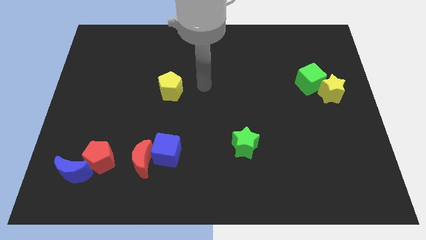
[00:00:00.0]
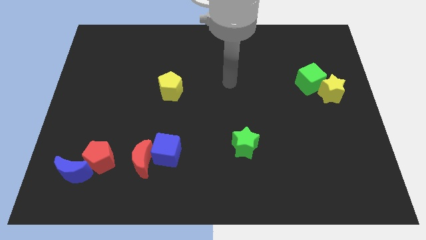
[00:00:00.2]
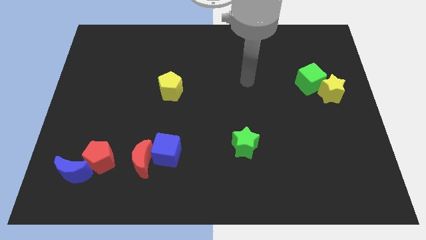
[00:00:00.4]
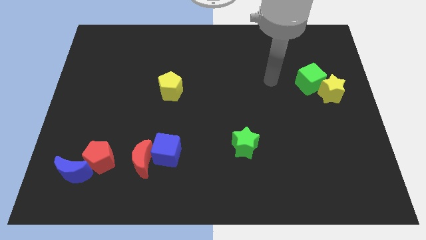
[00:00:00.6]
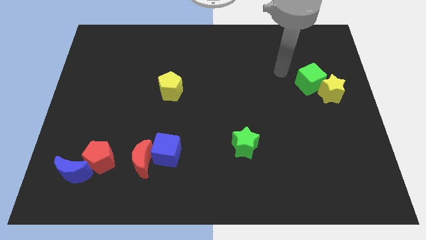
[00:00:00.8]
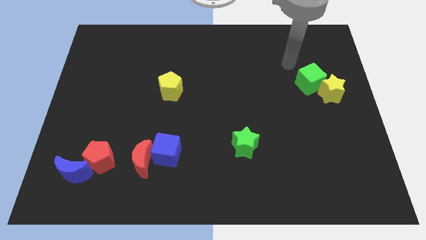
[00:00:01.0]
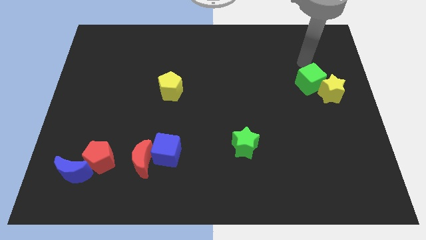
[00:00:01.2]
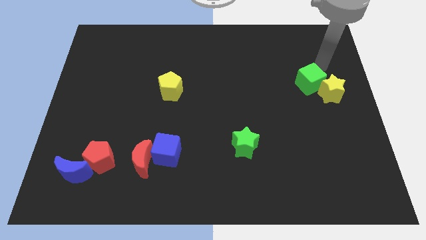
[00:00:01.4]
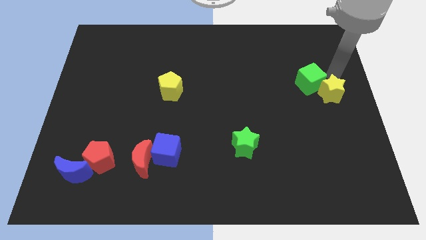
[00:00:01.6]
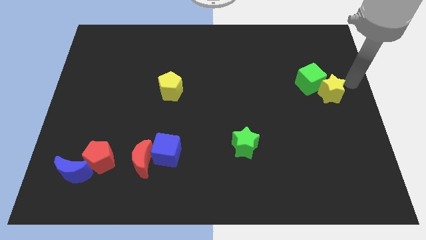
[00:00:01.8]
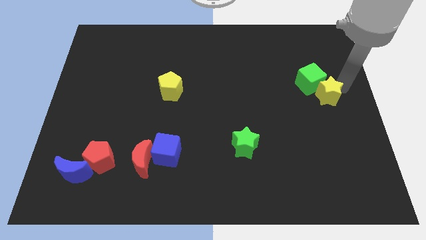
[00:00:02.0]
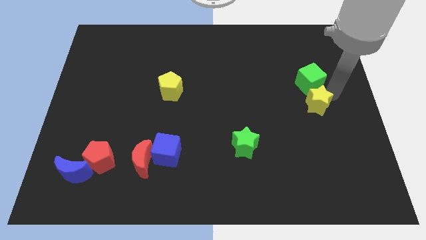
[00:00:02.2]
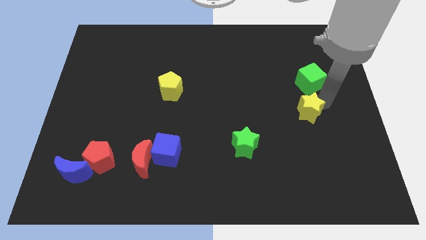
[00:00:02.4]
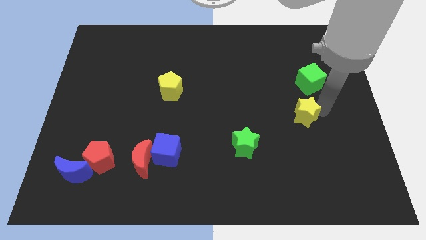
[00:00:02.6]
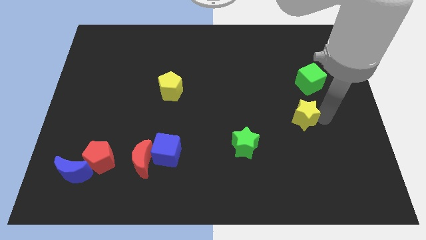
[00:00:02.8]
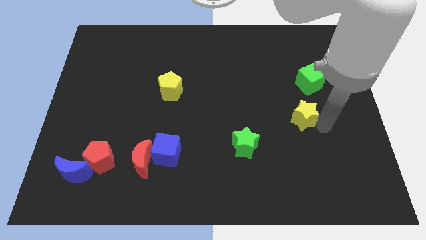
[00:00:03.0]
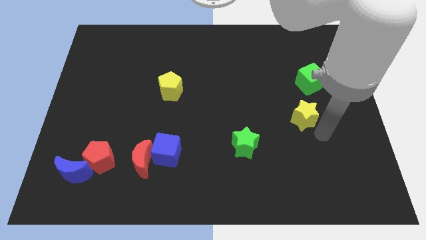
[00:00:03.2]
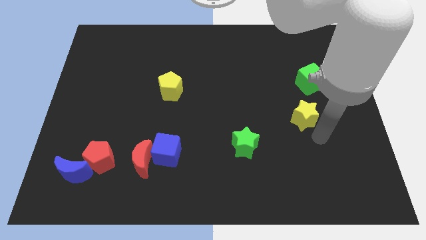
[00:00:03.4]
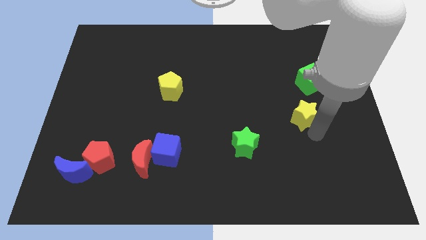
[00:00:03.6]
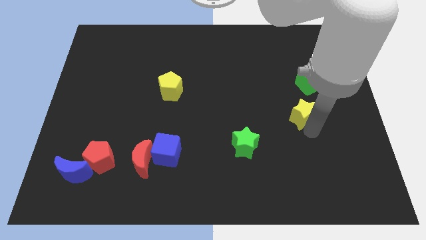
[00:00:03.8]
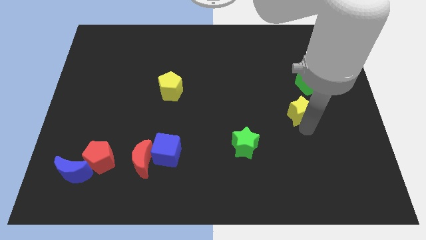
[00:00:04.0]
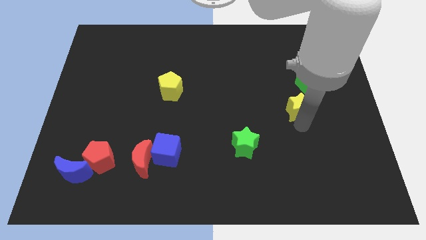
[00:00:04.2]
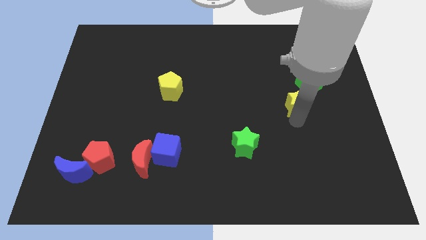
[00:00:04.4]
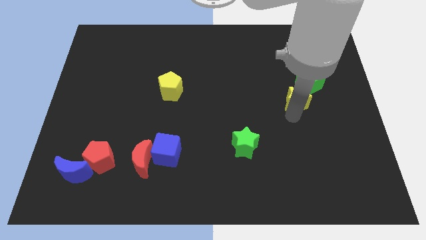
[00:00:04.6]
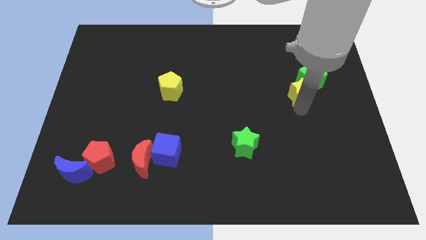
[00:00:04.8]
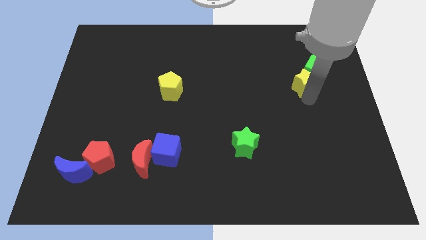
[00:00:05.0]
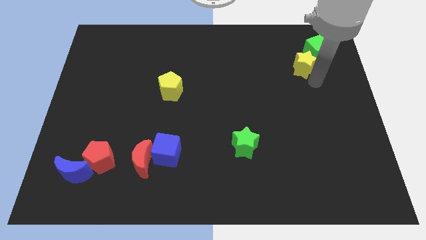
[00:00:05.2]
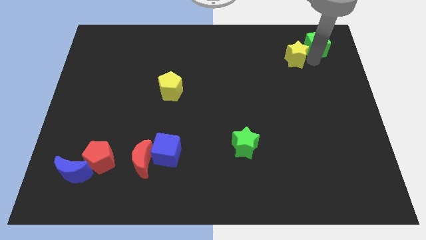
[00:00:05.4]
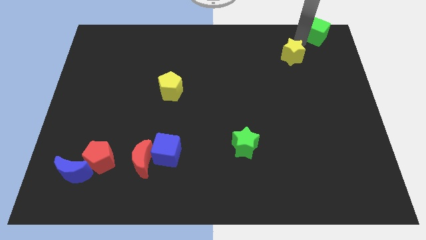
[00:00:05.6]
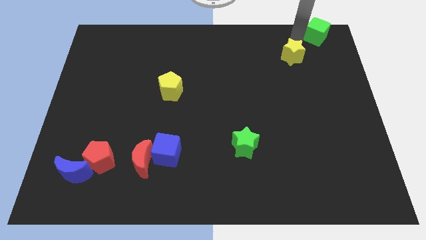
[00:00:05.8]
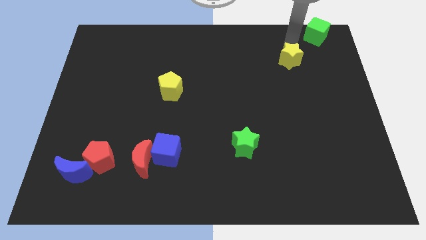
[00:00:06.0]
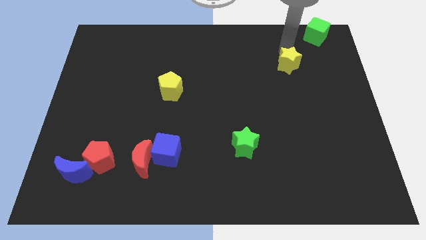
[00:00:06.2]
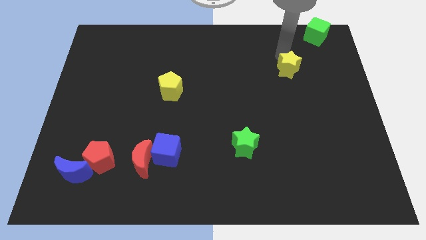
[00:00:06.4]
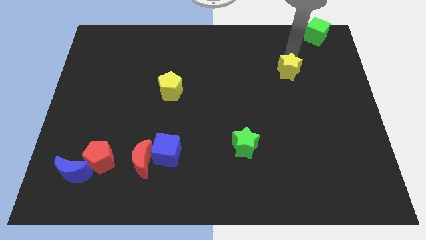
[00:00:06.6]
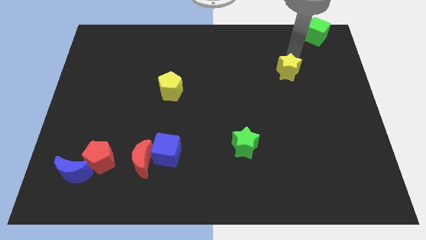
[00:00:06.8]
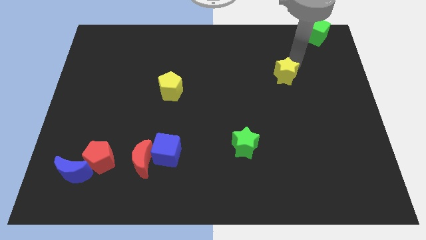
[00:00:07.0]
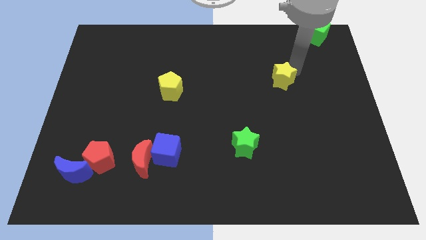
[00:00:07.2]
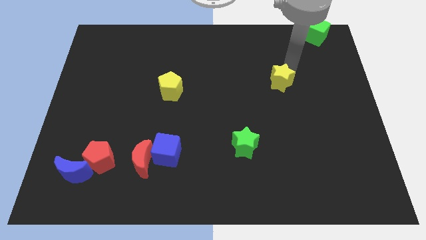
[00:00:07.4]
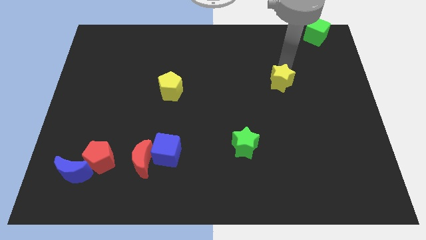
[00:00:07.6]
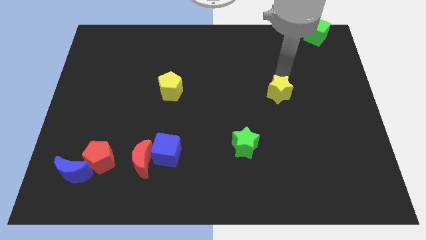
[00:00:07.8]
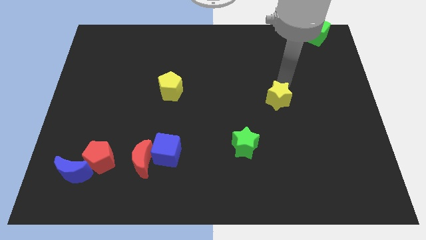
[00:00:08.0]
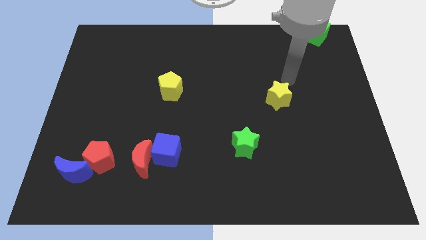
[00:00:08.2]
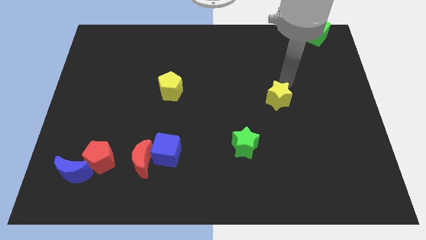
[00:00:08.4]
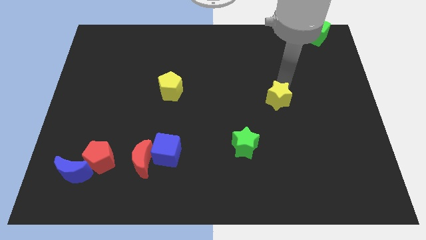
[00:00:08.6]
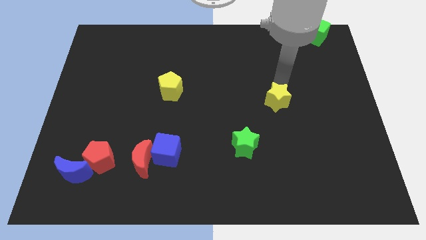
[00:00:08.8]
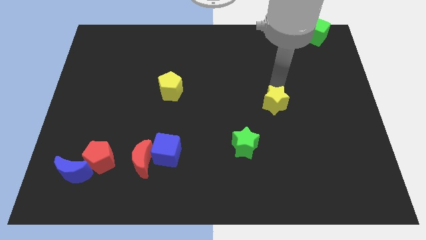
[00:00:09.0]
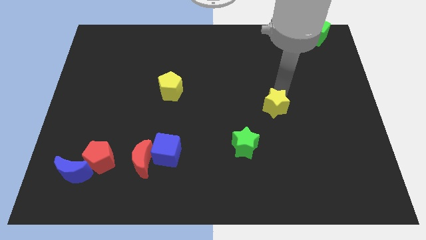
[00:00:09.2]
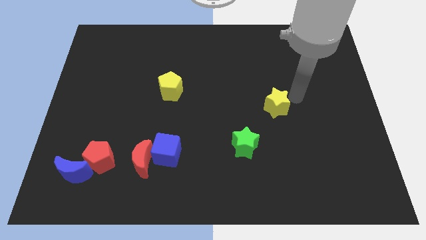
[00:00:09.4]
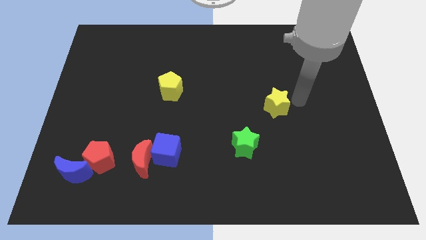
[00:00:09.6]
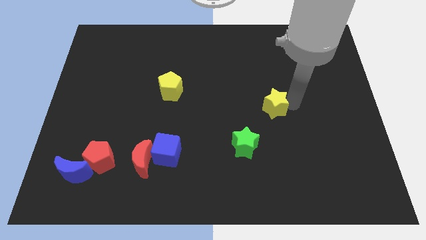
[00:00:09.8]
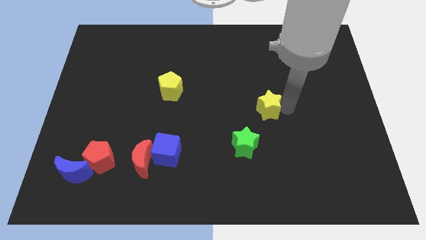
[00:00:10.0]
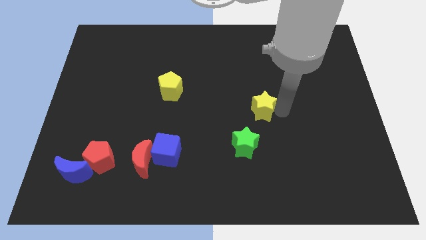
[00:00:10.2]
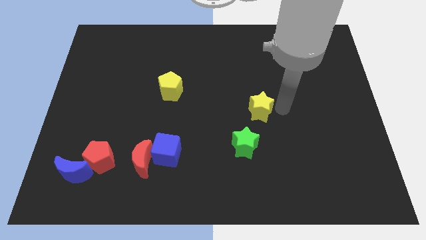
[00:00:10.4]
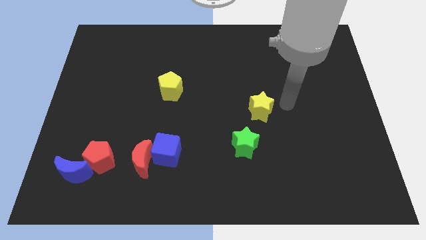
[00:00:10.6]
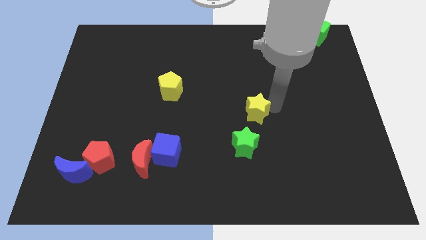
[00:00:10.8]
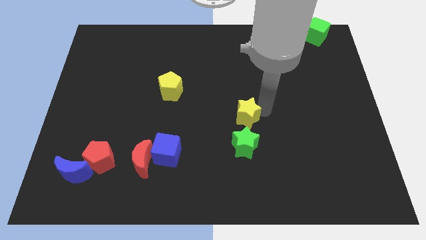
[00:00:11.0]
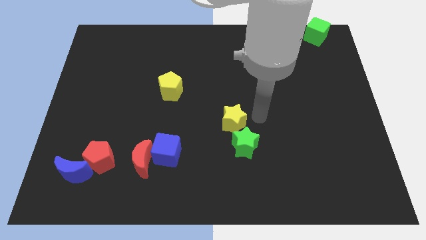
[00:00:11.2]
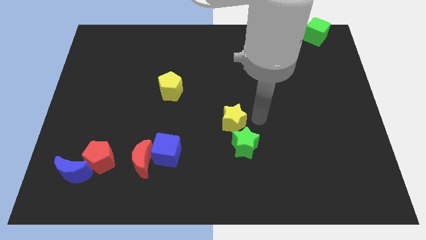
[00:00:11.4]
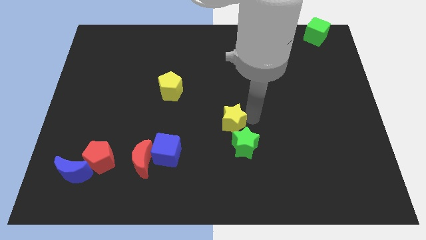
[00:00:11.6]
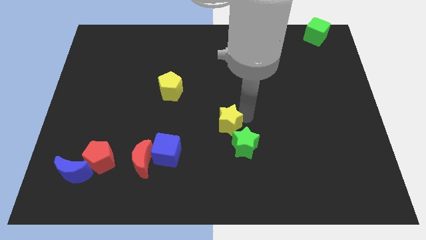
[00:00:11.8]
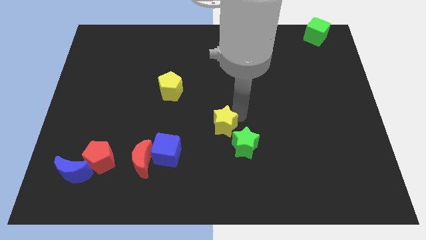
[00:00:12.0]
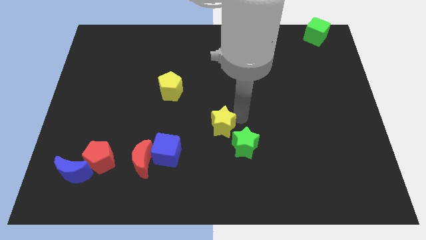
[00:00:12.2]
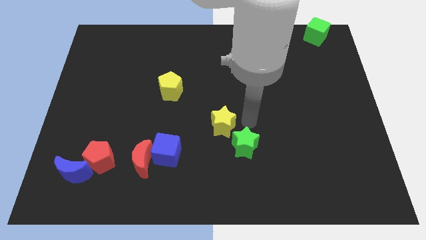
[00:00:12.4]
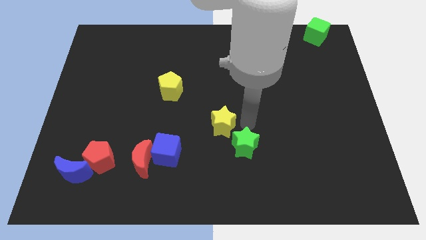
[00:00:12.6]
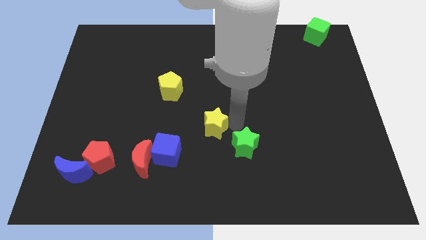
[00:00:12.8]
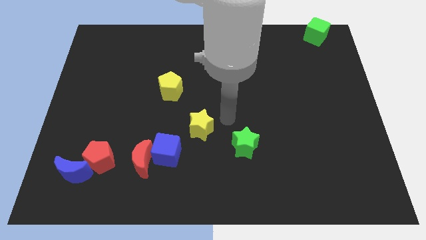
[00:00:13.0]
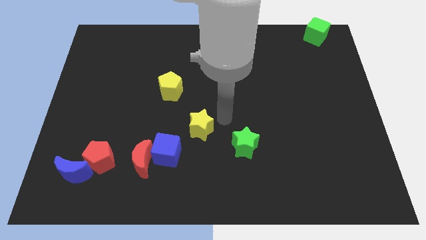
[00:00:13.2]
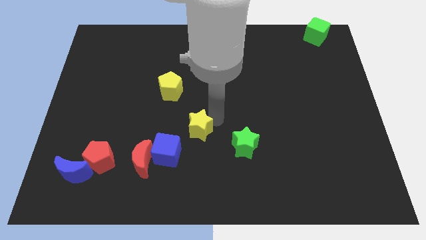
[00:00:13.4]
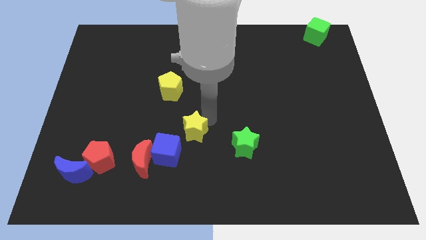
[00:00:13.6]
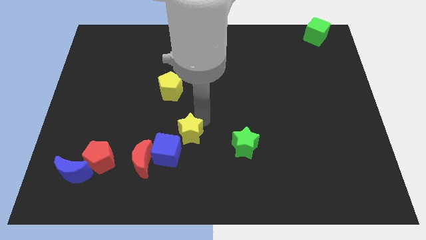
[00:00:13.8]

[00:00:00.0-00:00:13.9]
move the yellow star to the top right of the red moon

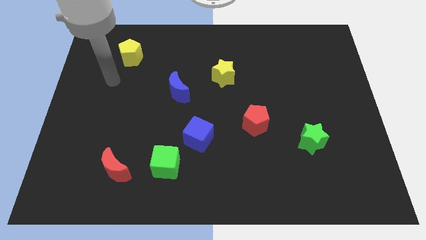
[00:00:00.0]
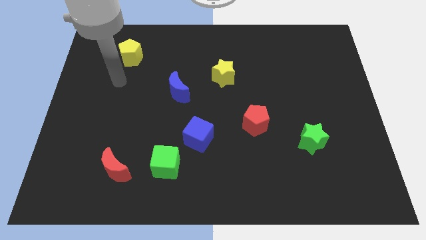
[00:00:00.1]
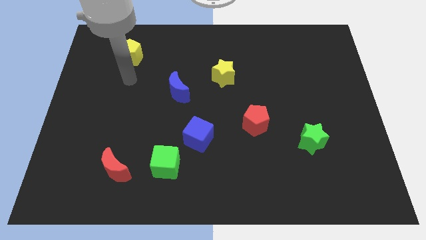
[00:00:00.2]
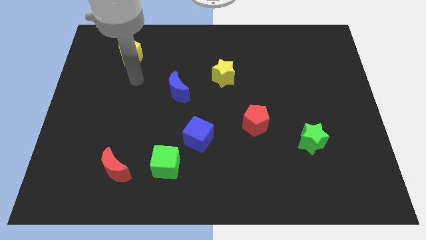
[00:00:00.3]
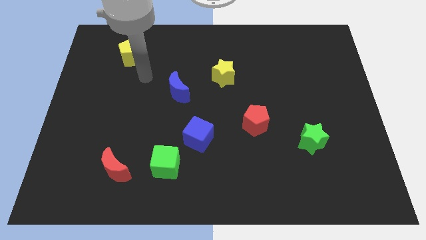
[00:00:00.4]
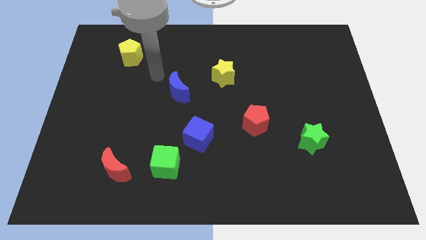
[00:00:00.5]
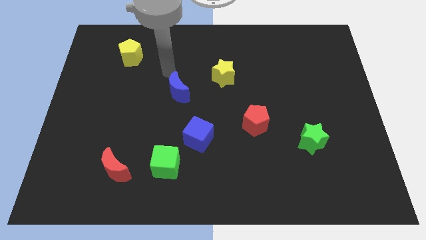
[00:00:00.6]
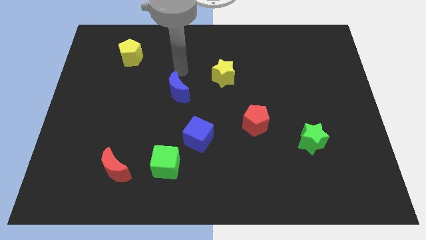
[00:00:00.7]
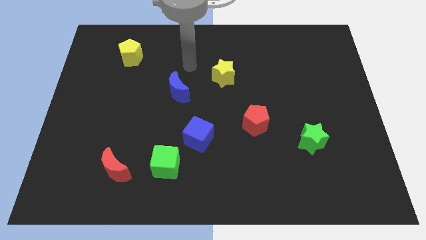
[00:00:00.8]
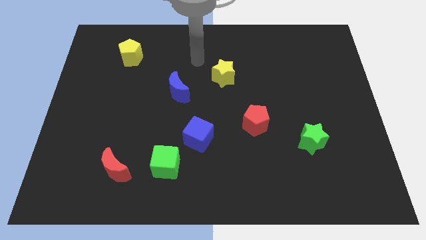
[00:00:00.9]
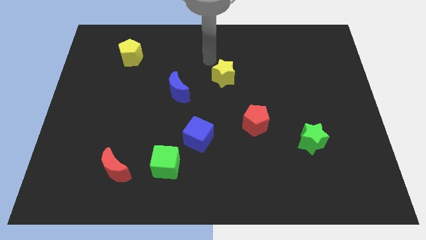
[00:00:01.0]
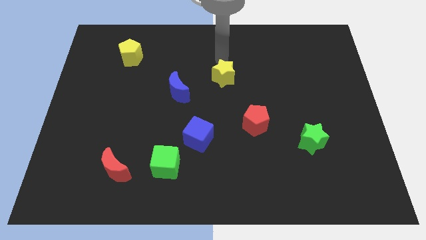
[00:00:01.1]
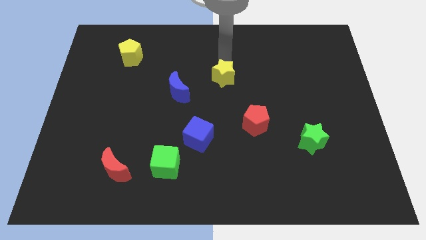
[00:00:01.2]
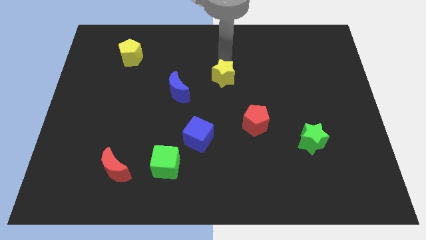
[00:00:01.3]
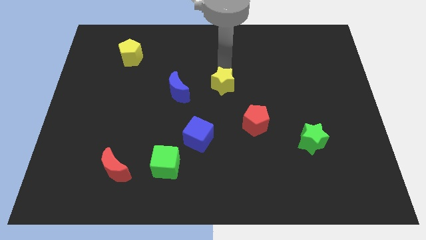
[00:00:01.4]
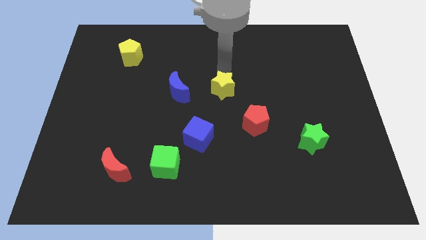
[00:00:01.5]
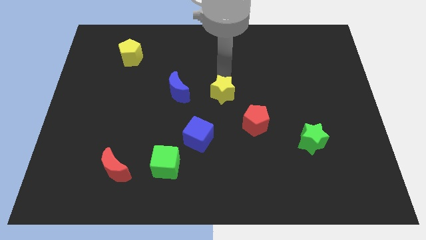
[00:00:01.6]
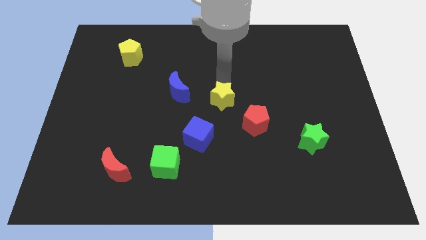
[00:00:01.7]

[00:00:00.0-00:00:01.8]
push the yellow star to the top right side of the blue cube
